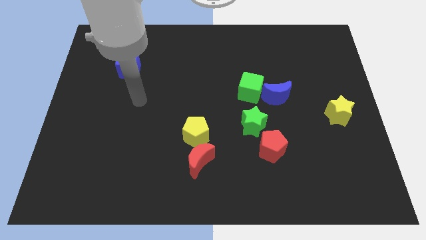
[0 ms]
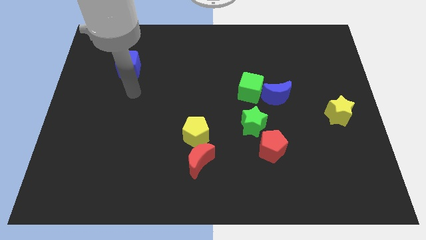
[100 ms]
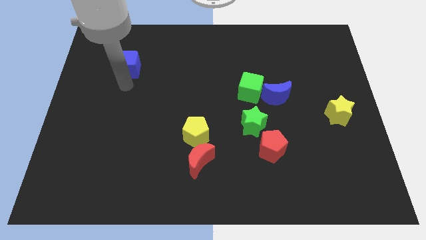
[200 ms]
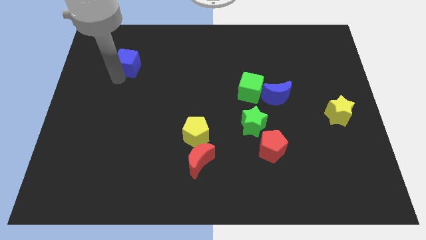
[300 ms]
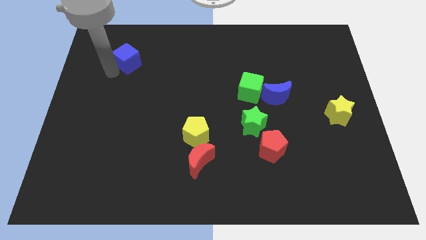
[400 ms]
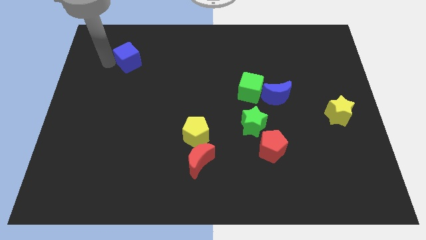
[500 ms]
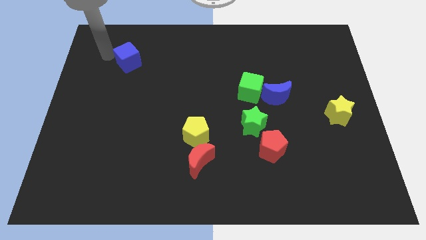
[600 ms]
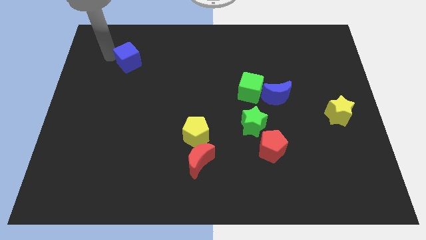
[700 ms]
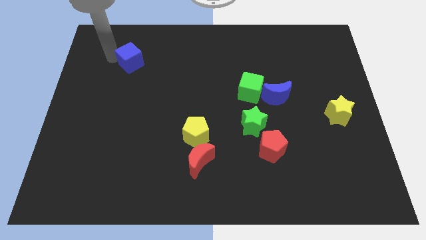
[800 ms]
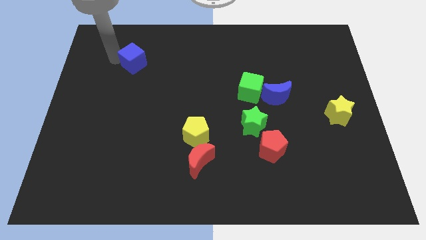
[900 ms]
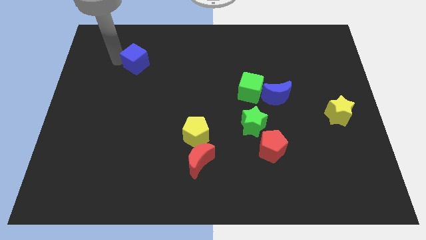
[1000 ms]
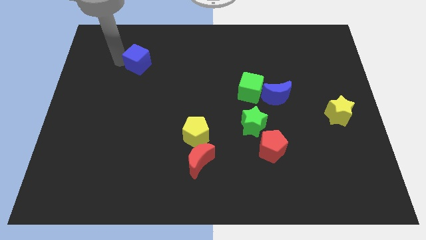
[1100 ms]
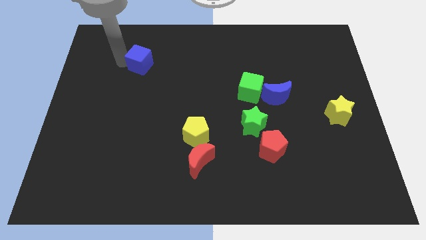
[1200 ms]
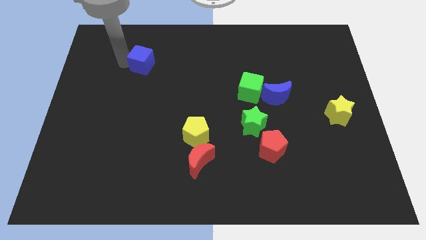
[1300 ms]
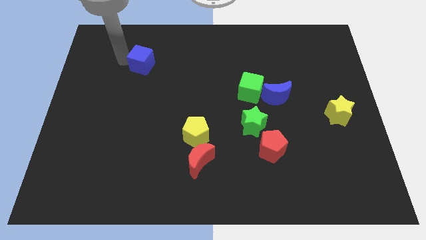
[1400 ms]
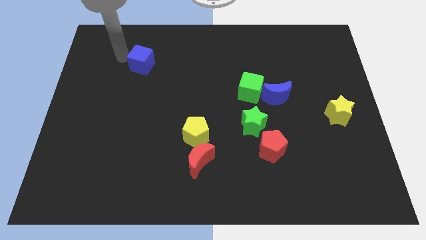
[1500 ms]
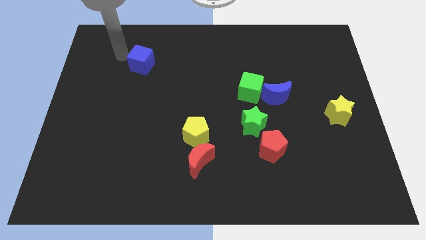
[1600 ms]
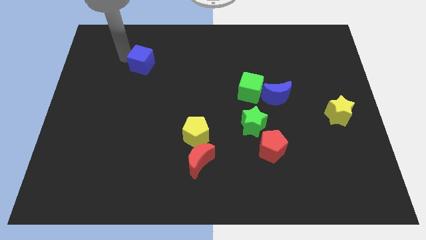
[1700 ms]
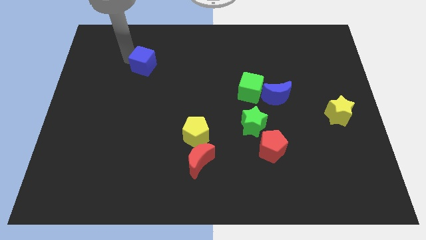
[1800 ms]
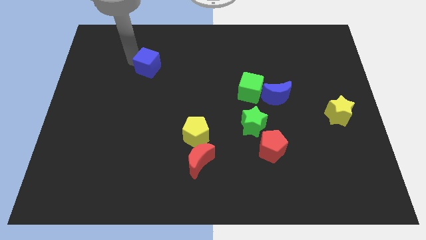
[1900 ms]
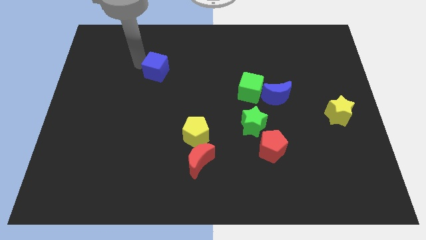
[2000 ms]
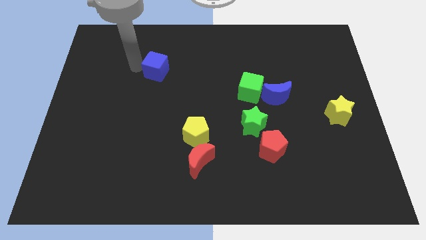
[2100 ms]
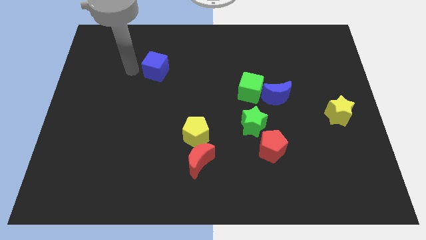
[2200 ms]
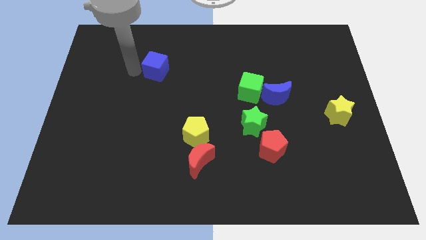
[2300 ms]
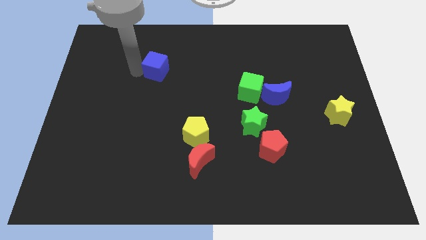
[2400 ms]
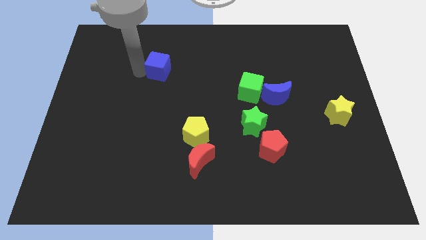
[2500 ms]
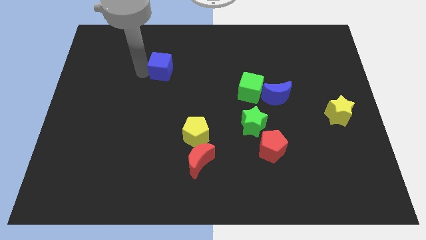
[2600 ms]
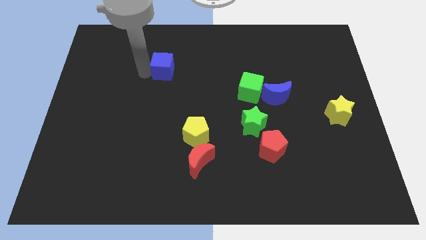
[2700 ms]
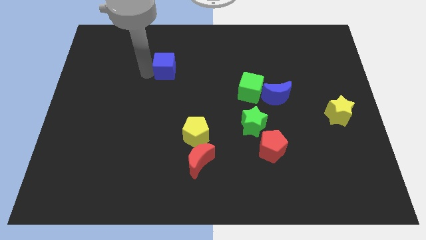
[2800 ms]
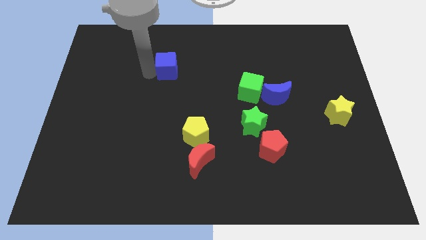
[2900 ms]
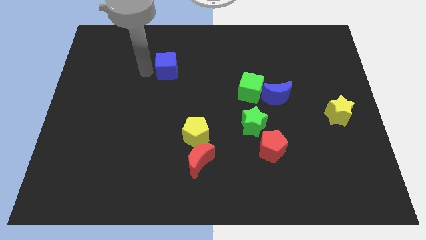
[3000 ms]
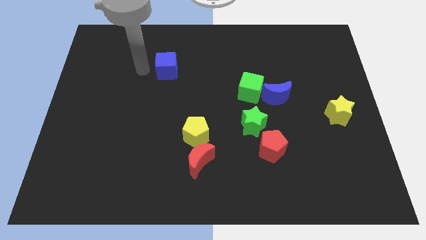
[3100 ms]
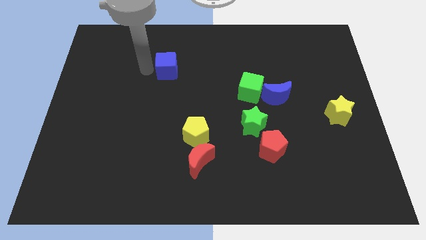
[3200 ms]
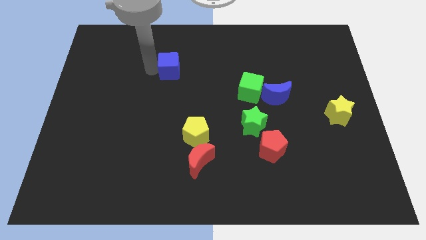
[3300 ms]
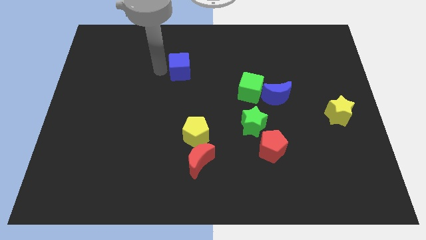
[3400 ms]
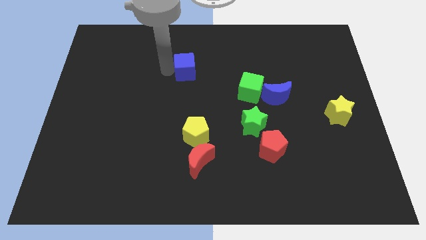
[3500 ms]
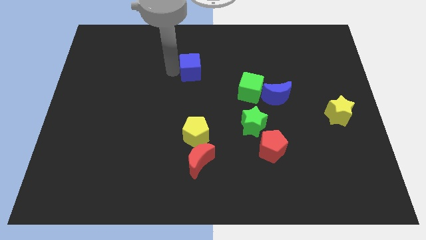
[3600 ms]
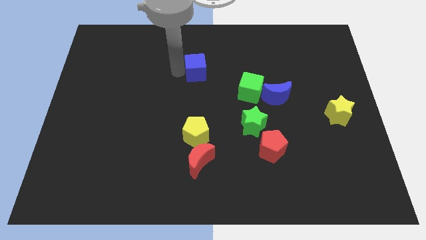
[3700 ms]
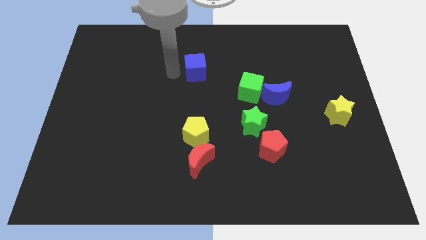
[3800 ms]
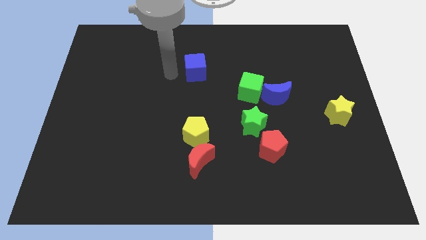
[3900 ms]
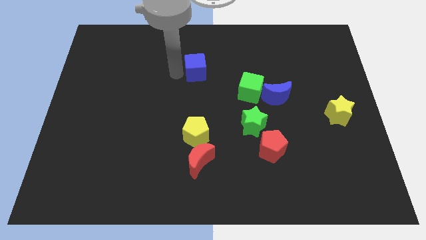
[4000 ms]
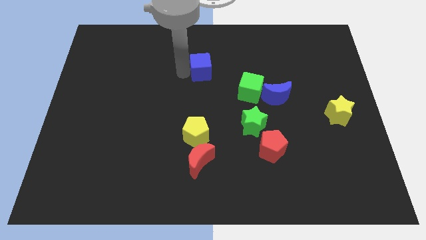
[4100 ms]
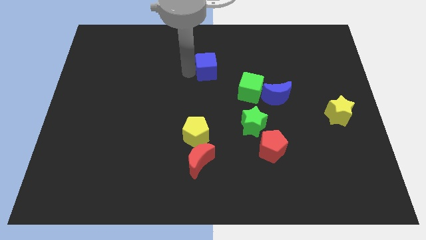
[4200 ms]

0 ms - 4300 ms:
slide the blue cube right

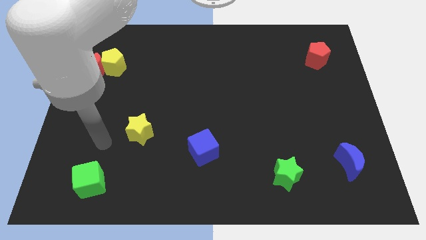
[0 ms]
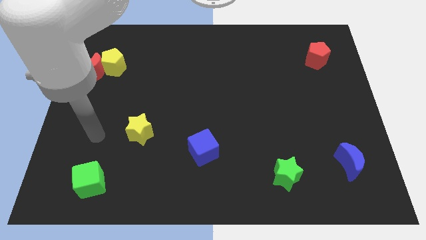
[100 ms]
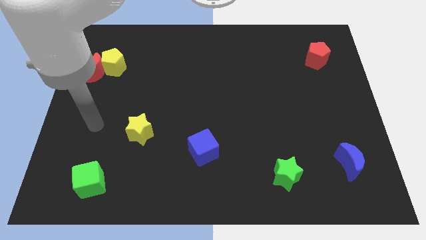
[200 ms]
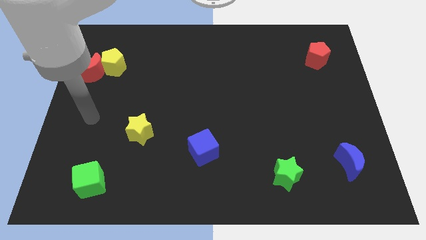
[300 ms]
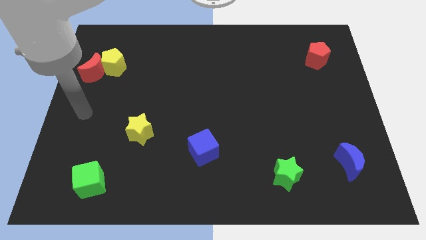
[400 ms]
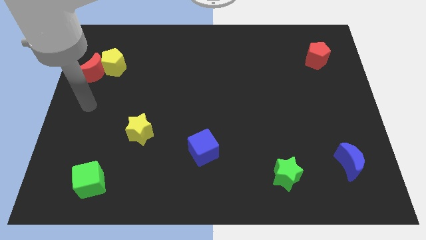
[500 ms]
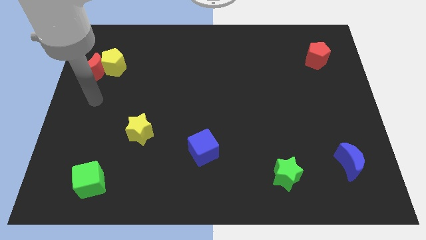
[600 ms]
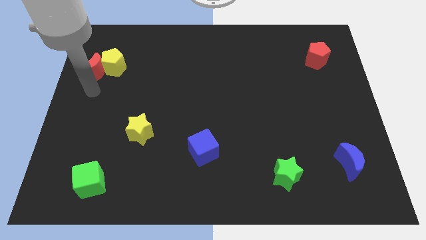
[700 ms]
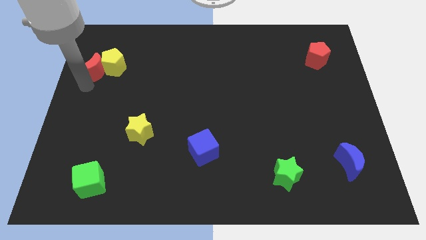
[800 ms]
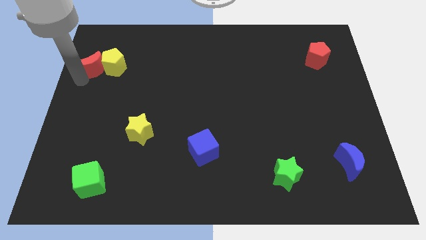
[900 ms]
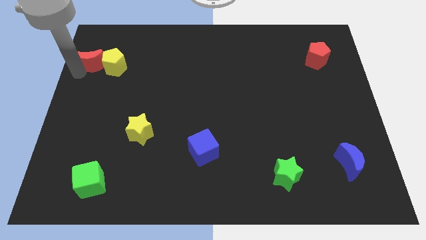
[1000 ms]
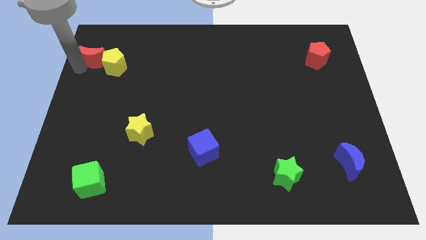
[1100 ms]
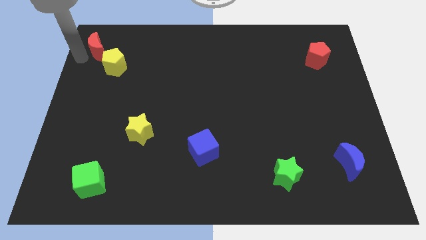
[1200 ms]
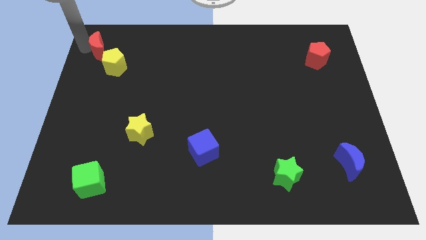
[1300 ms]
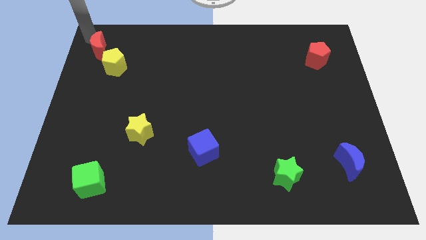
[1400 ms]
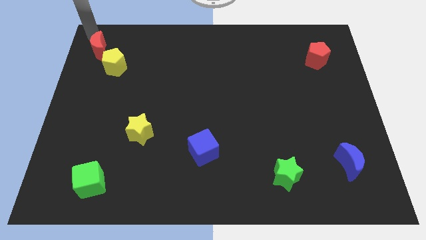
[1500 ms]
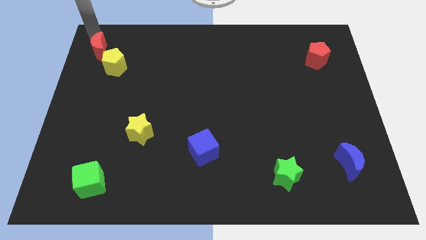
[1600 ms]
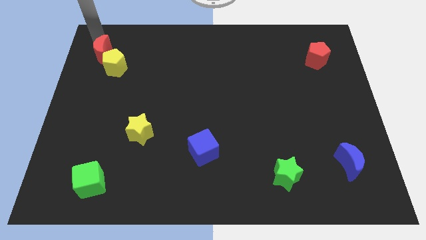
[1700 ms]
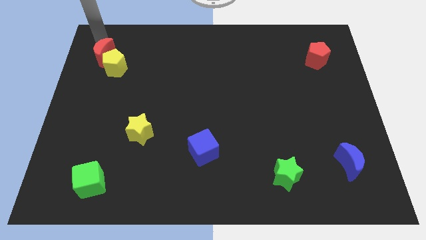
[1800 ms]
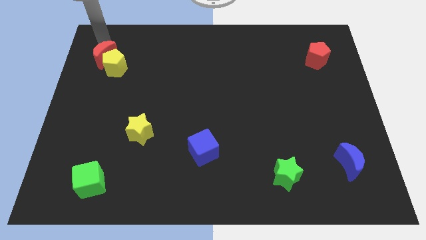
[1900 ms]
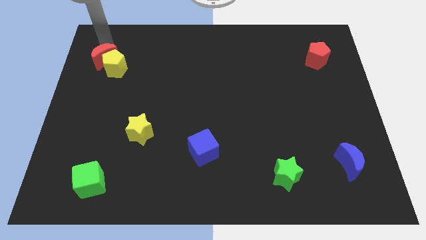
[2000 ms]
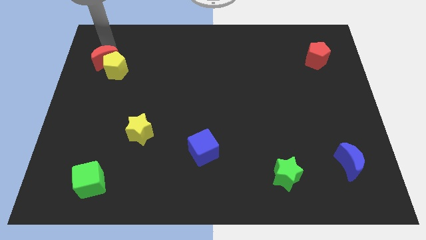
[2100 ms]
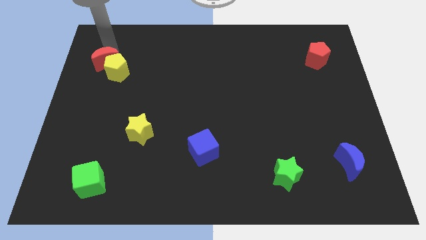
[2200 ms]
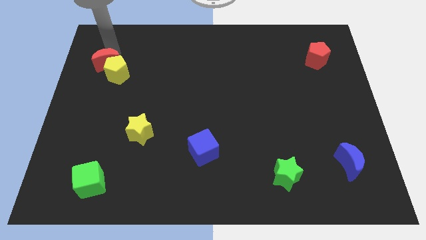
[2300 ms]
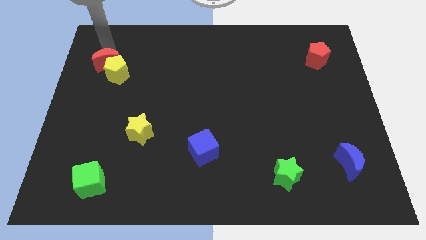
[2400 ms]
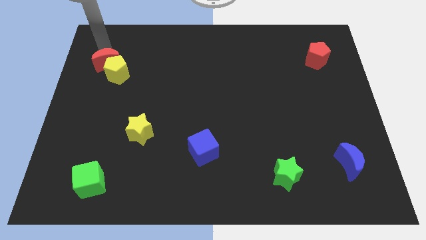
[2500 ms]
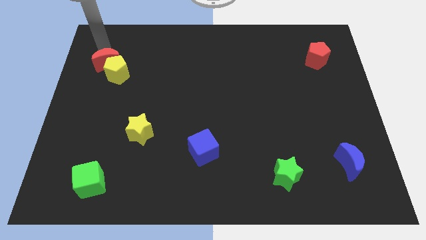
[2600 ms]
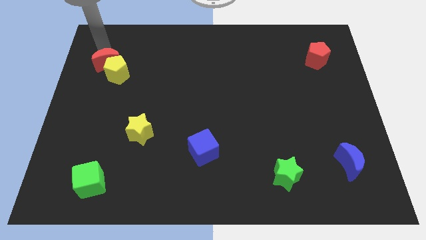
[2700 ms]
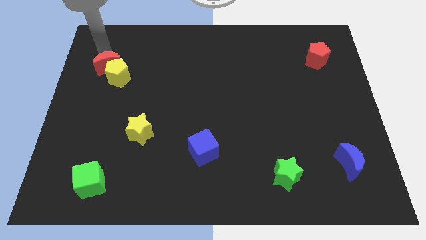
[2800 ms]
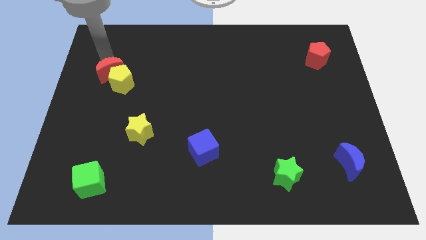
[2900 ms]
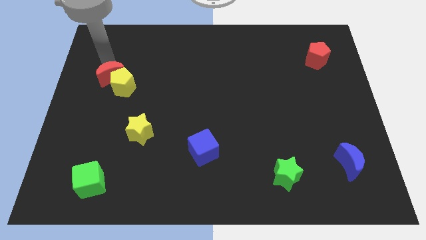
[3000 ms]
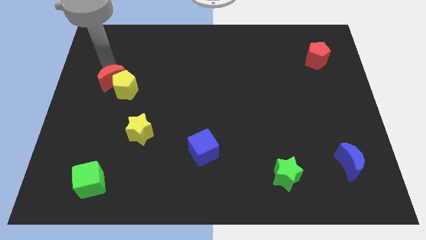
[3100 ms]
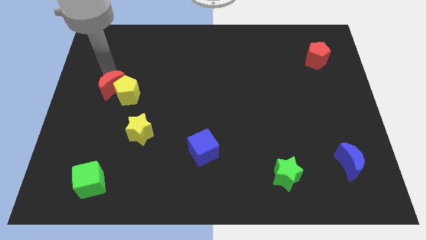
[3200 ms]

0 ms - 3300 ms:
push the red moon diagonally downwards and right a bit
